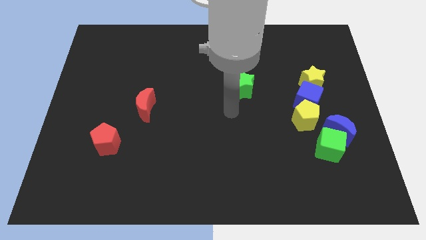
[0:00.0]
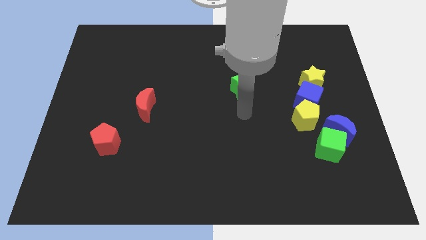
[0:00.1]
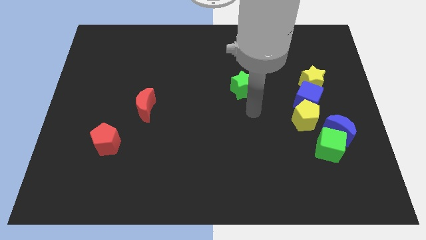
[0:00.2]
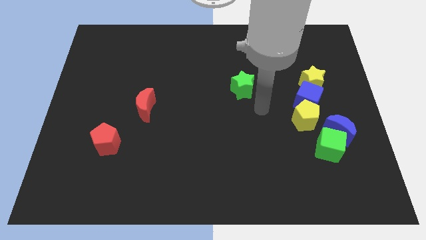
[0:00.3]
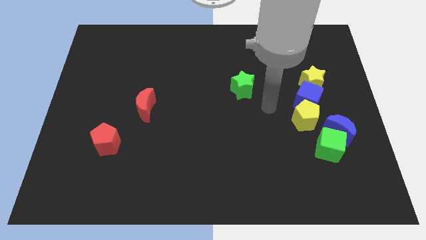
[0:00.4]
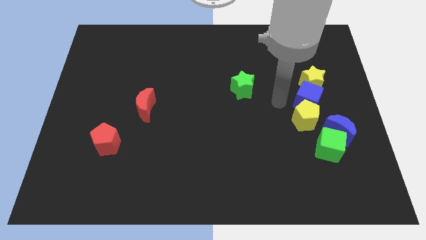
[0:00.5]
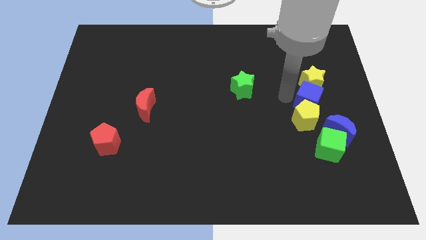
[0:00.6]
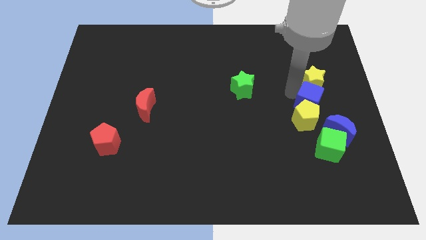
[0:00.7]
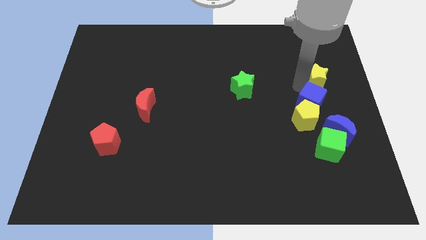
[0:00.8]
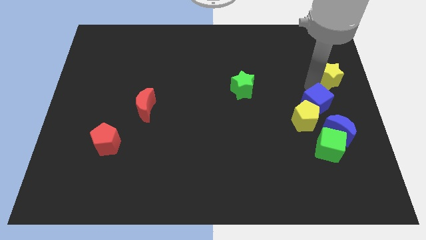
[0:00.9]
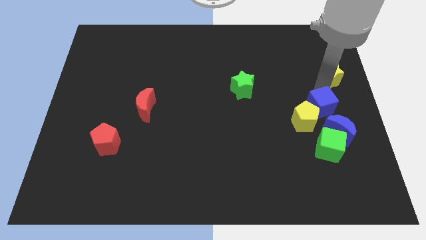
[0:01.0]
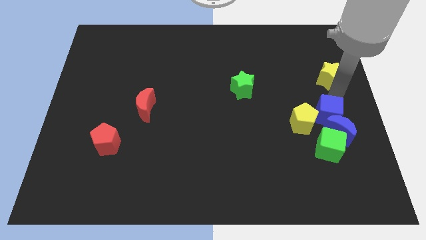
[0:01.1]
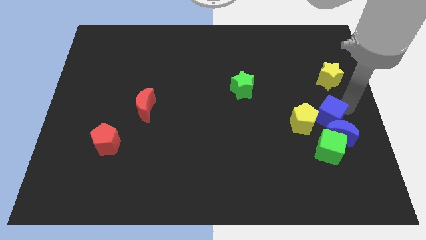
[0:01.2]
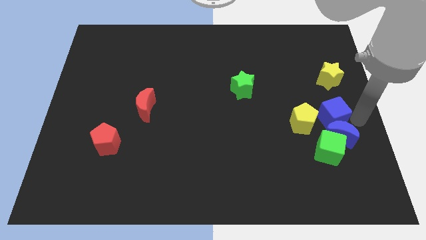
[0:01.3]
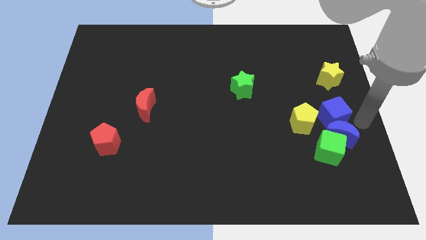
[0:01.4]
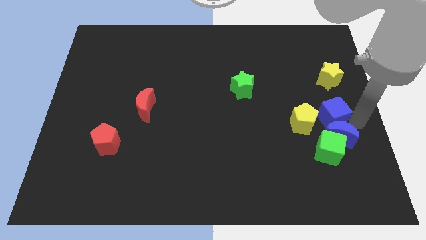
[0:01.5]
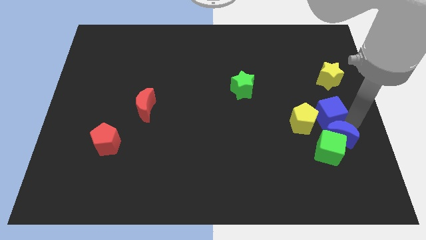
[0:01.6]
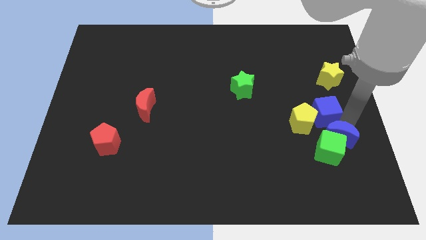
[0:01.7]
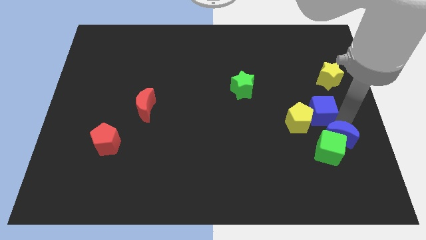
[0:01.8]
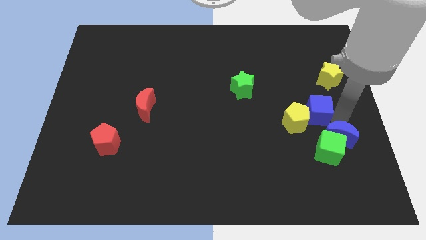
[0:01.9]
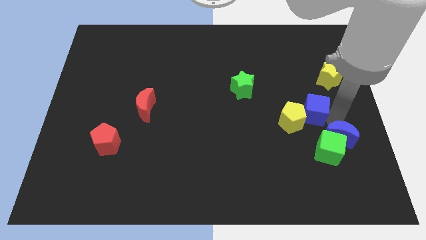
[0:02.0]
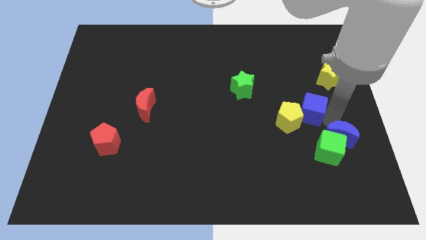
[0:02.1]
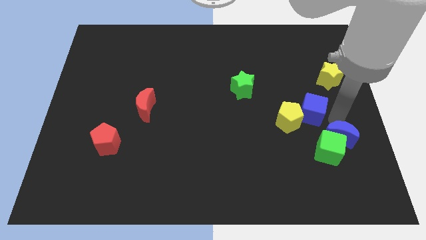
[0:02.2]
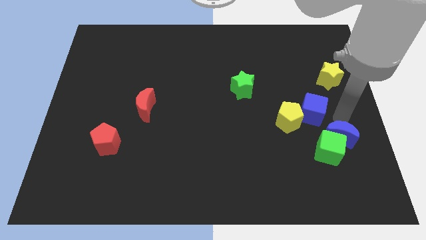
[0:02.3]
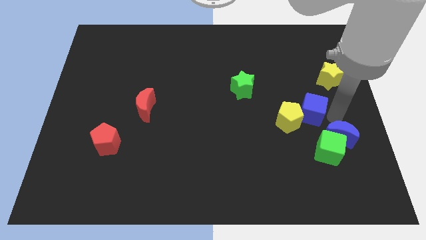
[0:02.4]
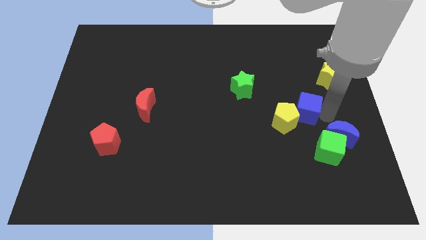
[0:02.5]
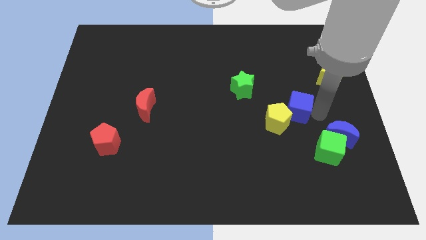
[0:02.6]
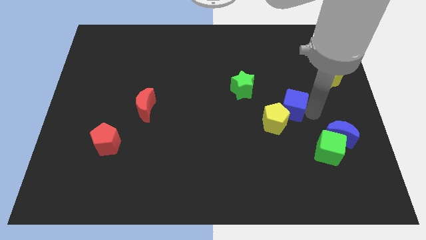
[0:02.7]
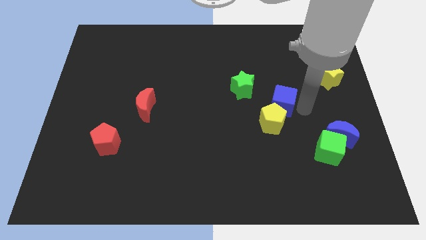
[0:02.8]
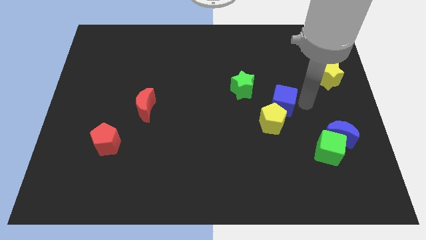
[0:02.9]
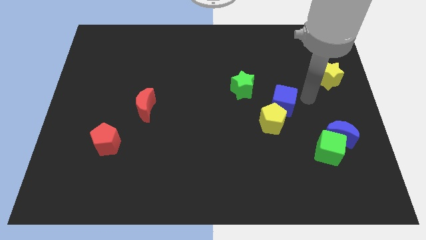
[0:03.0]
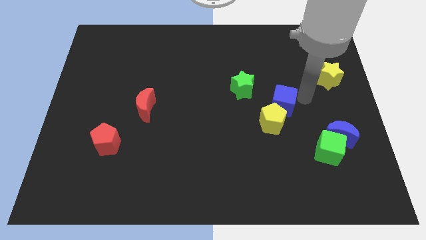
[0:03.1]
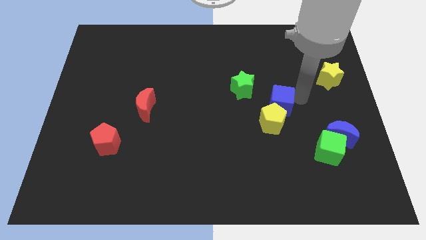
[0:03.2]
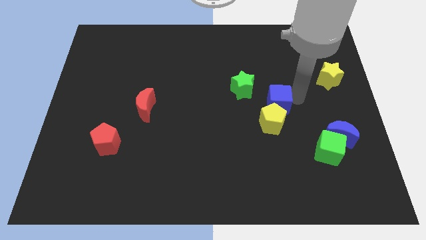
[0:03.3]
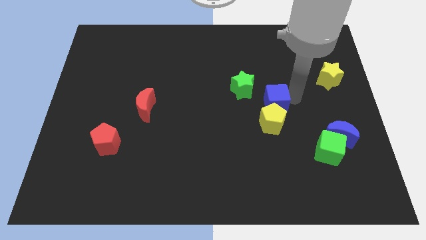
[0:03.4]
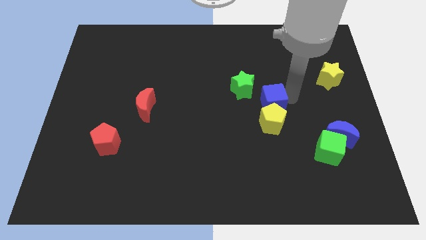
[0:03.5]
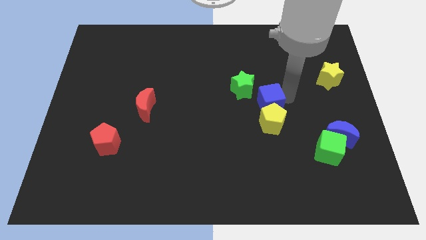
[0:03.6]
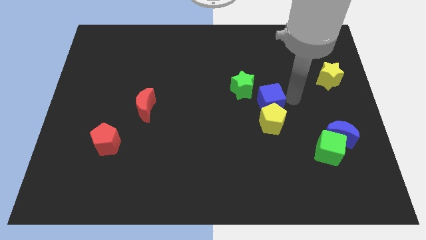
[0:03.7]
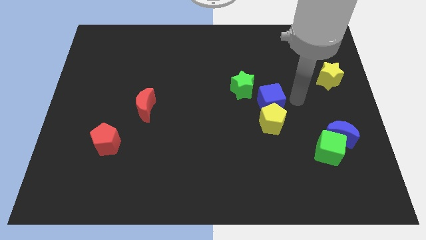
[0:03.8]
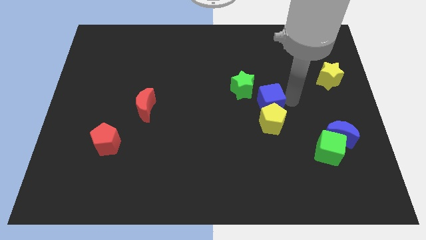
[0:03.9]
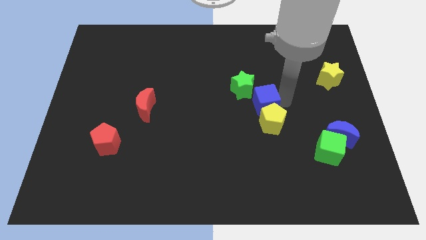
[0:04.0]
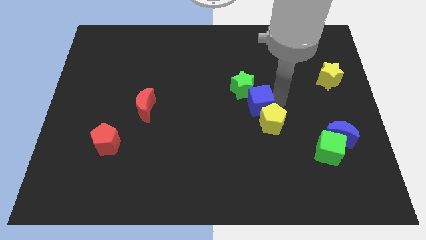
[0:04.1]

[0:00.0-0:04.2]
pull the blue cube apart from the yellow pentagon and yellow star

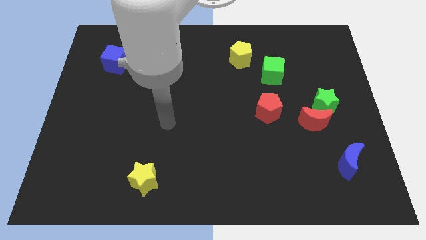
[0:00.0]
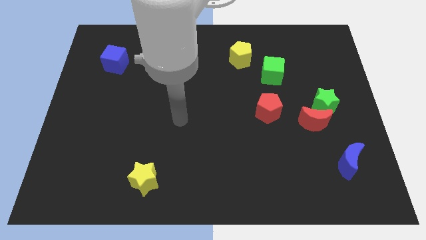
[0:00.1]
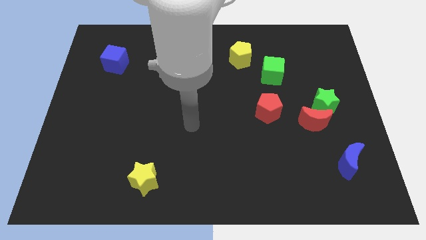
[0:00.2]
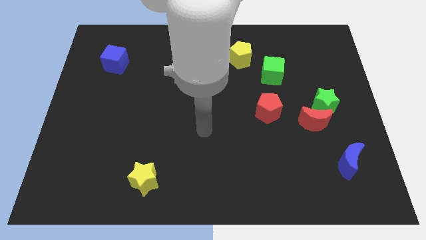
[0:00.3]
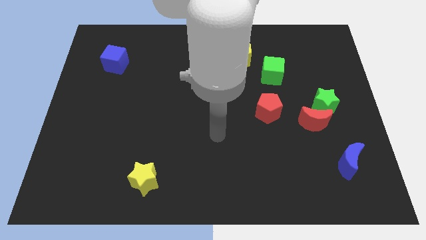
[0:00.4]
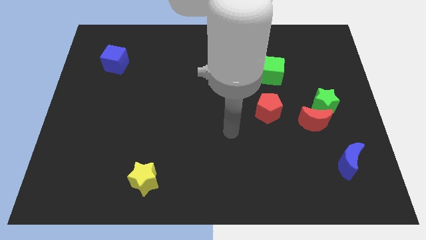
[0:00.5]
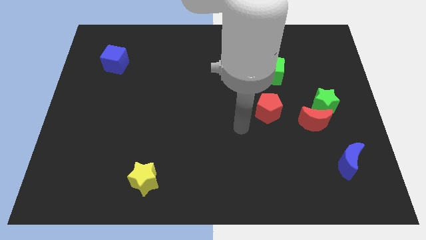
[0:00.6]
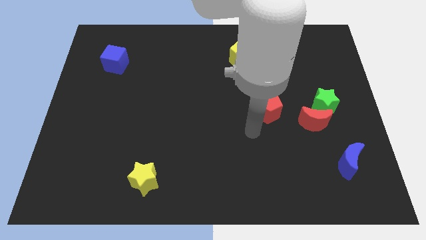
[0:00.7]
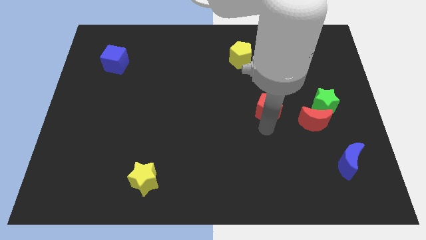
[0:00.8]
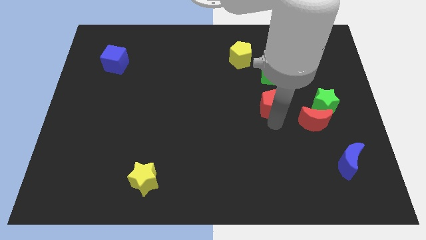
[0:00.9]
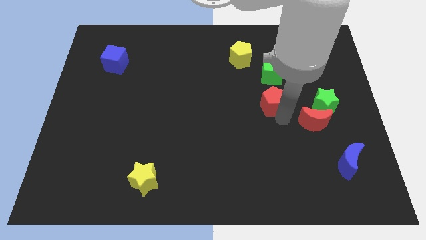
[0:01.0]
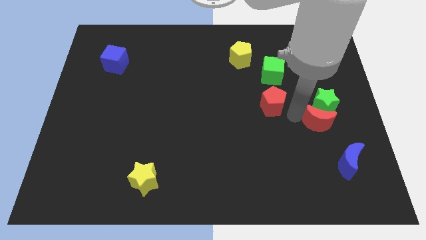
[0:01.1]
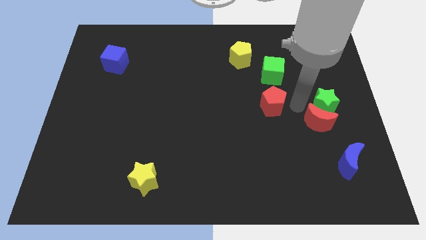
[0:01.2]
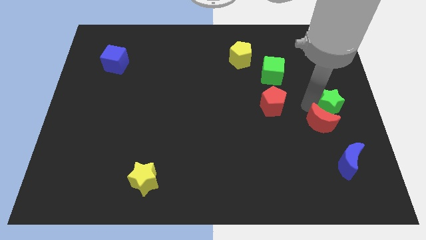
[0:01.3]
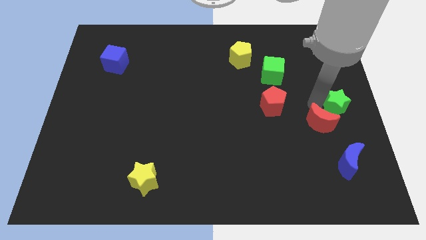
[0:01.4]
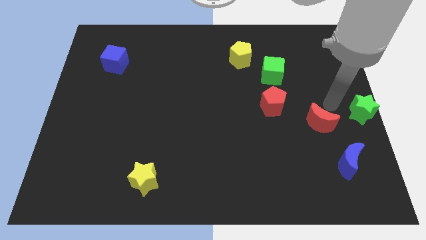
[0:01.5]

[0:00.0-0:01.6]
pull the red moon apart from the green star

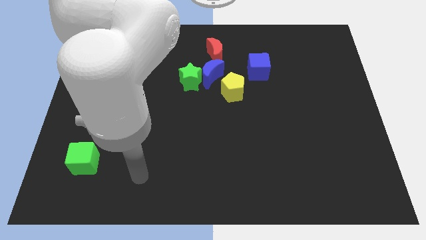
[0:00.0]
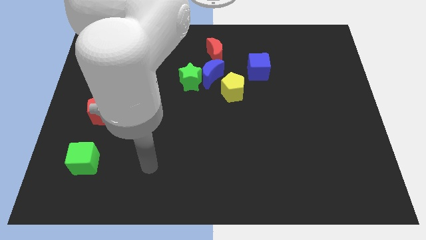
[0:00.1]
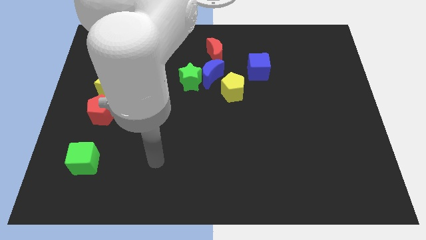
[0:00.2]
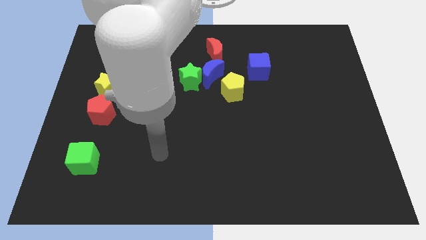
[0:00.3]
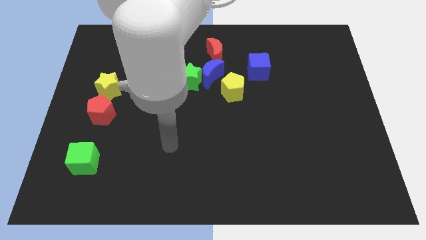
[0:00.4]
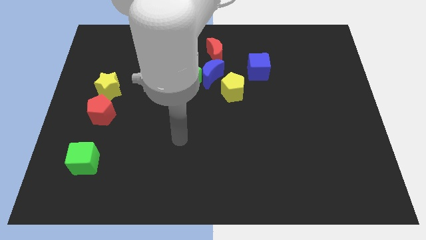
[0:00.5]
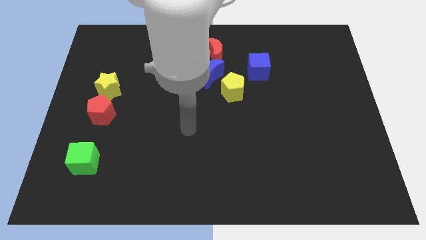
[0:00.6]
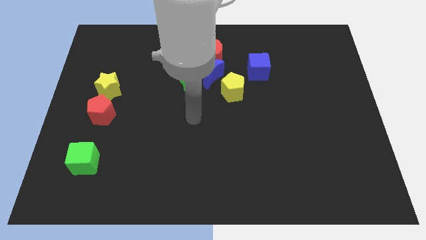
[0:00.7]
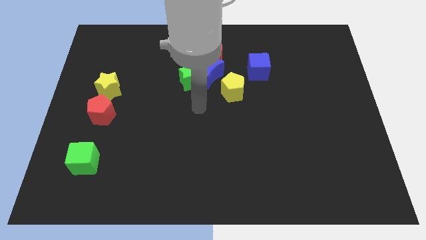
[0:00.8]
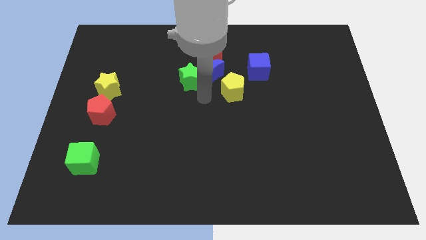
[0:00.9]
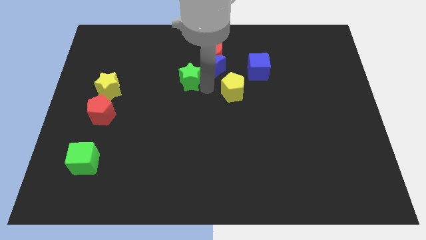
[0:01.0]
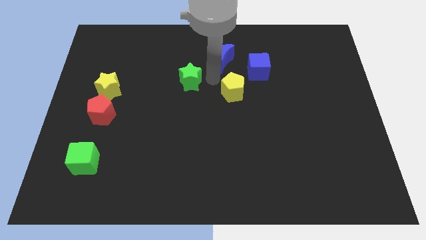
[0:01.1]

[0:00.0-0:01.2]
pull the green star apart from the blue moon

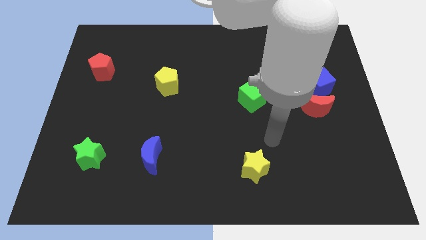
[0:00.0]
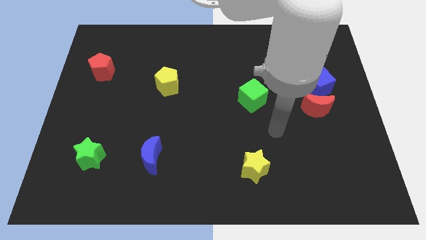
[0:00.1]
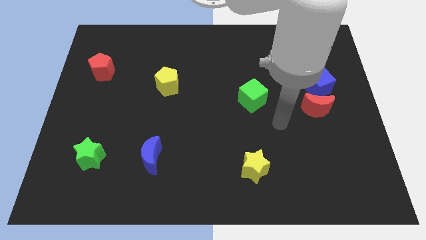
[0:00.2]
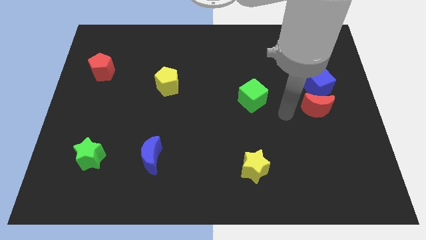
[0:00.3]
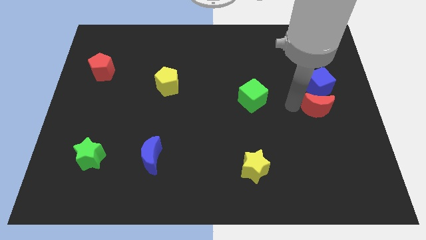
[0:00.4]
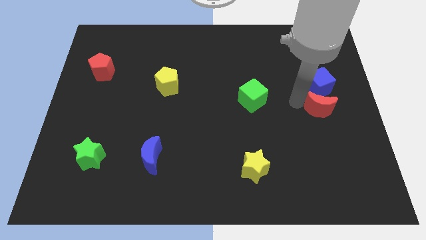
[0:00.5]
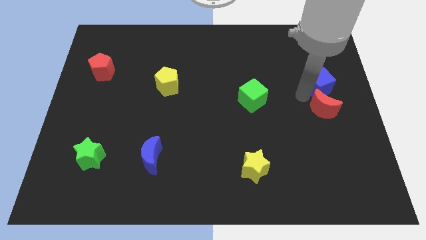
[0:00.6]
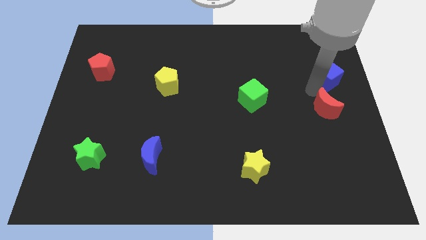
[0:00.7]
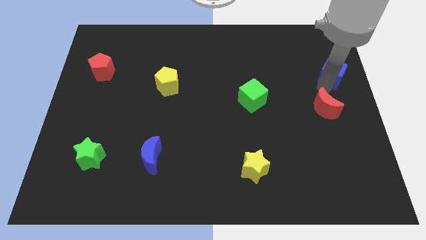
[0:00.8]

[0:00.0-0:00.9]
pull the red moon apart from the blue cube

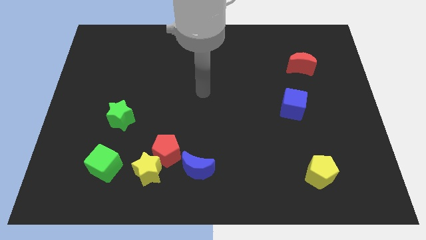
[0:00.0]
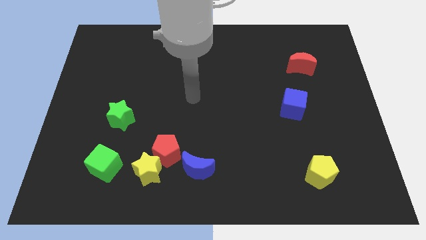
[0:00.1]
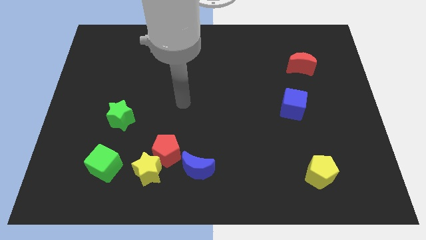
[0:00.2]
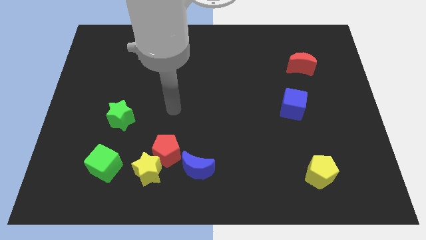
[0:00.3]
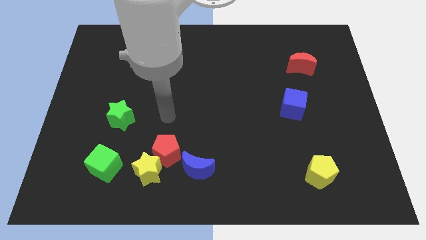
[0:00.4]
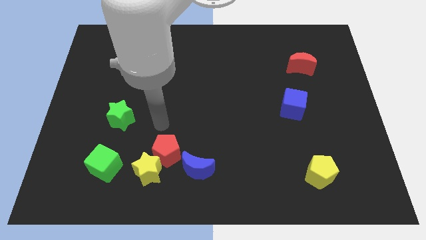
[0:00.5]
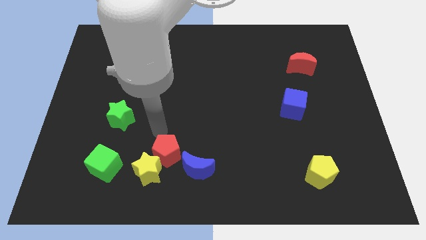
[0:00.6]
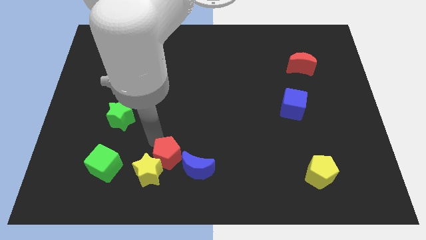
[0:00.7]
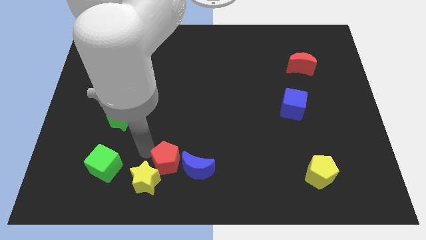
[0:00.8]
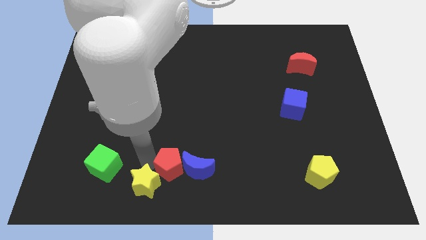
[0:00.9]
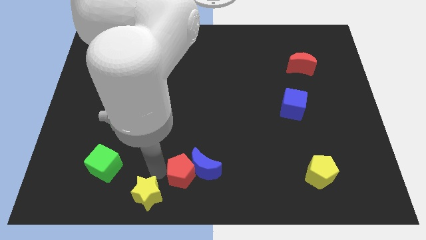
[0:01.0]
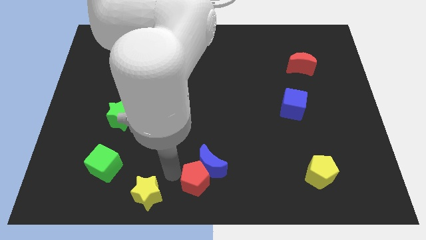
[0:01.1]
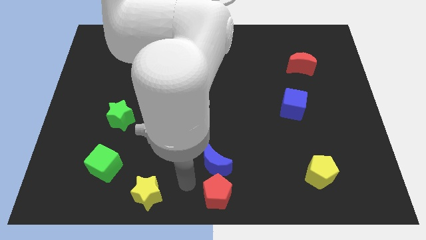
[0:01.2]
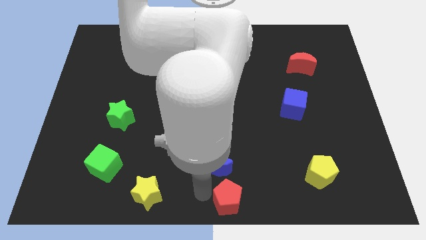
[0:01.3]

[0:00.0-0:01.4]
separate the red pentagon from the yellow star and blue moon
